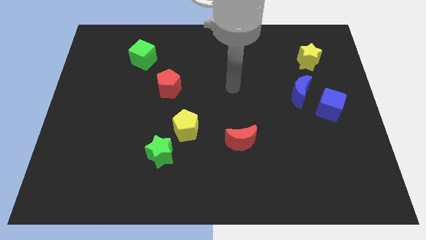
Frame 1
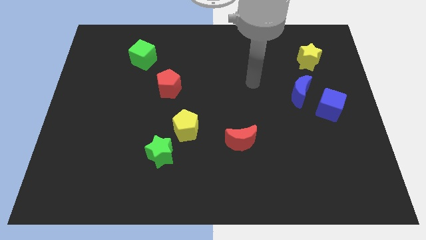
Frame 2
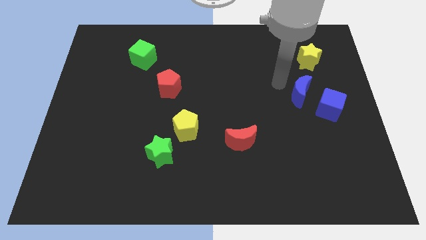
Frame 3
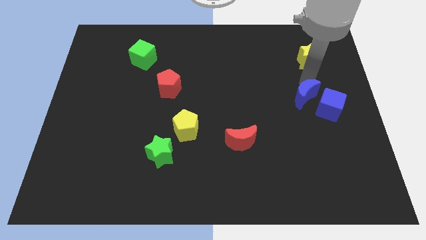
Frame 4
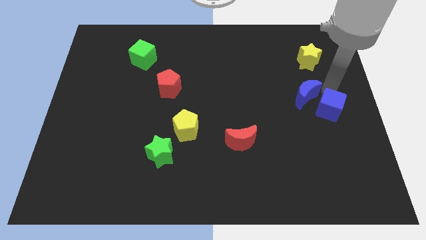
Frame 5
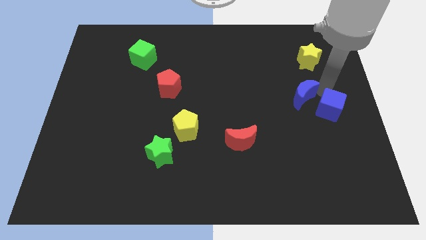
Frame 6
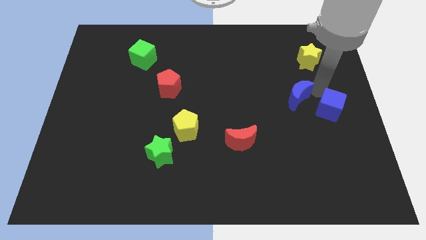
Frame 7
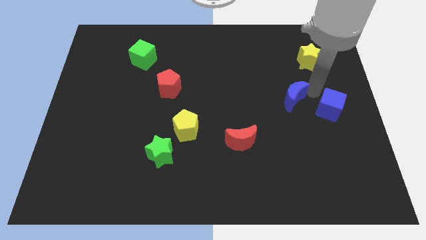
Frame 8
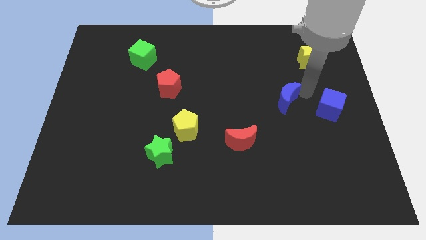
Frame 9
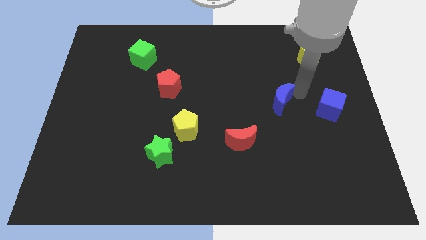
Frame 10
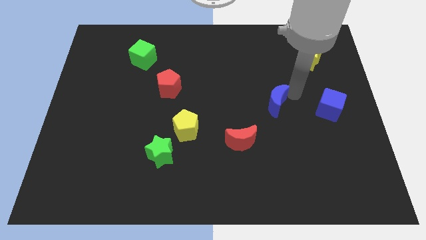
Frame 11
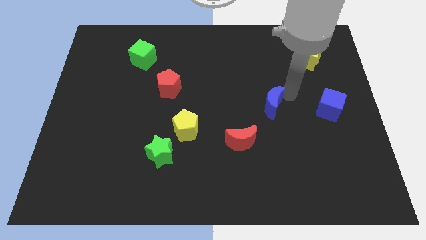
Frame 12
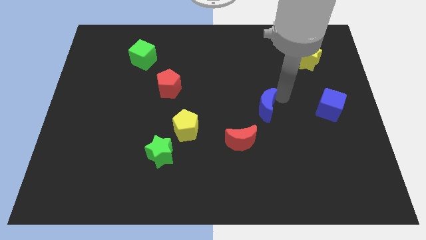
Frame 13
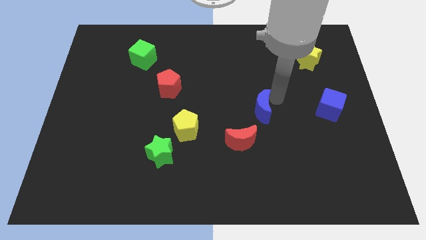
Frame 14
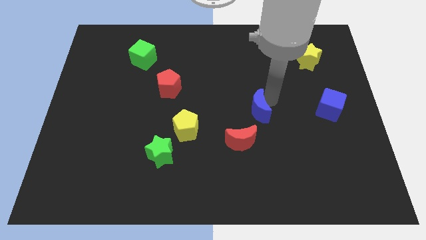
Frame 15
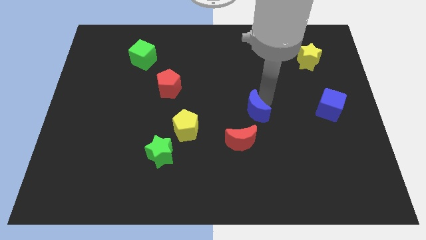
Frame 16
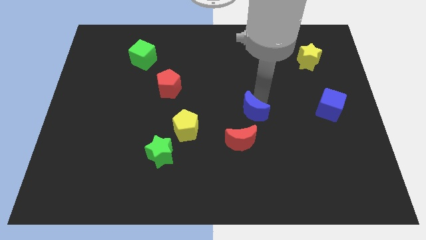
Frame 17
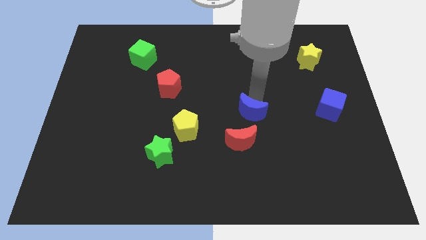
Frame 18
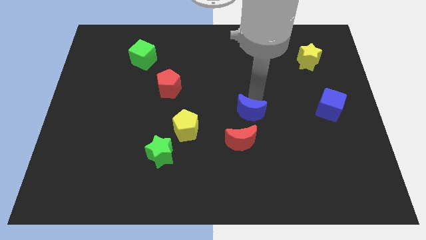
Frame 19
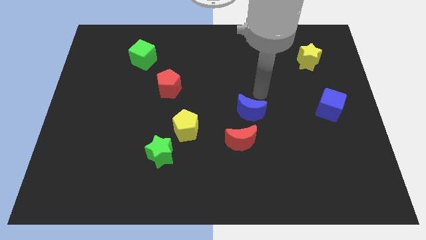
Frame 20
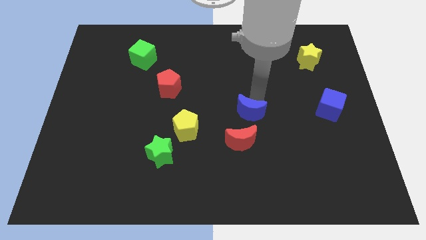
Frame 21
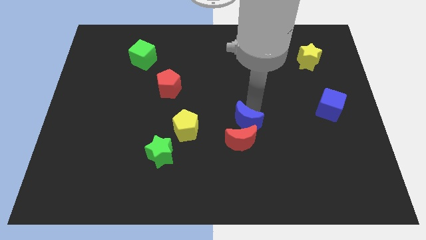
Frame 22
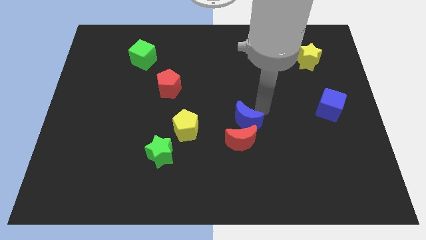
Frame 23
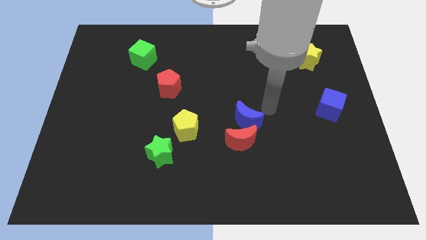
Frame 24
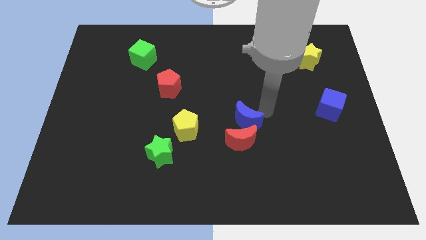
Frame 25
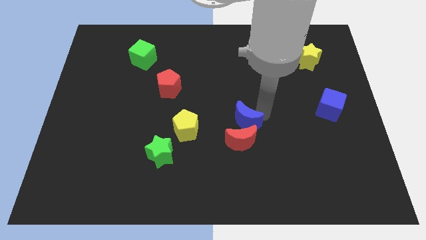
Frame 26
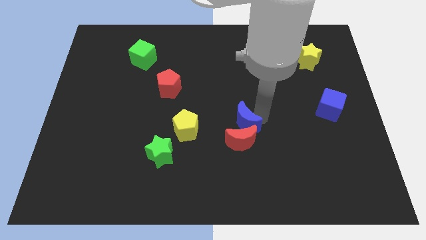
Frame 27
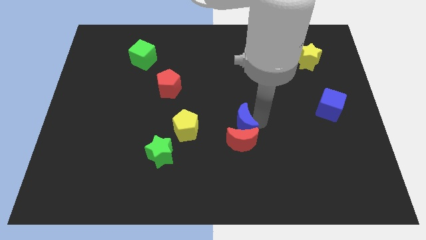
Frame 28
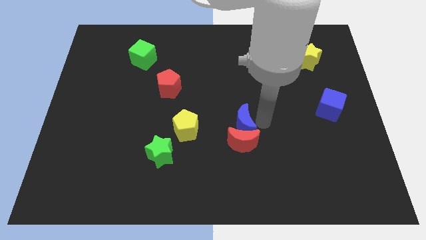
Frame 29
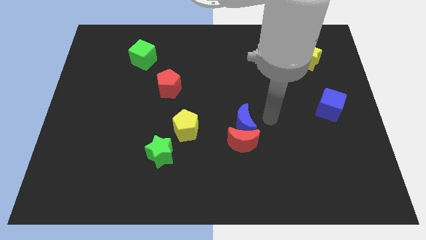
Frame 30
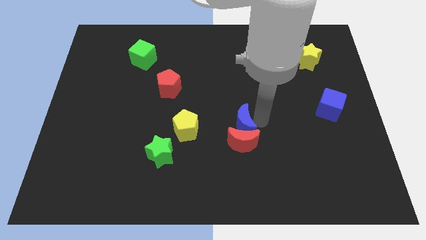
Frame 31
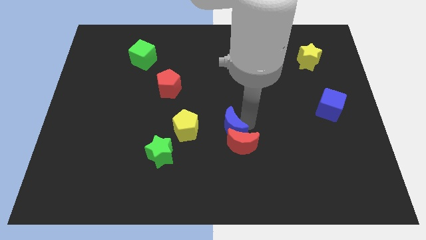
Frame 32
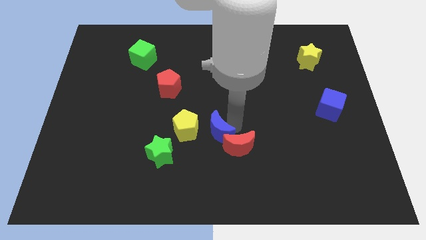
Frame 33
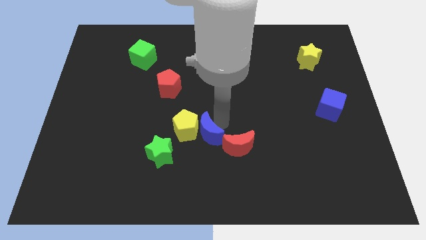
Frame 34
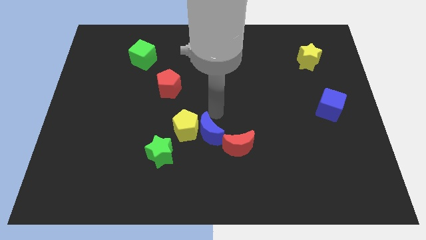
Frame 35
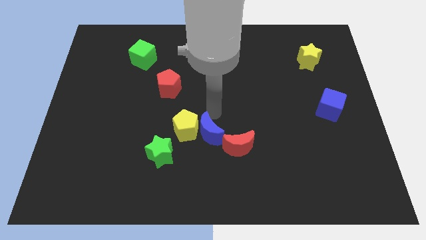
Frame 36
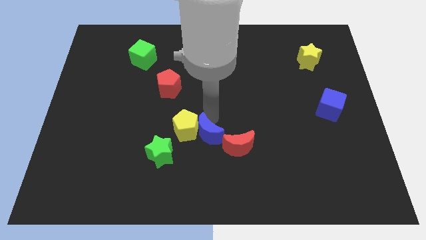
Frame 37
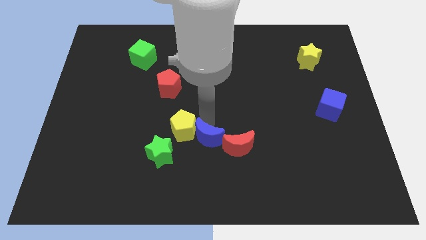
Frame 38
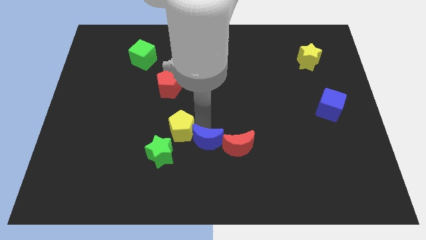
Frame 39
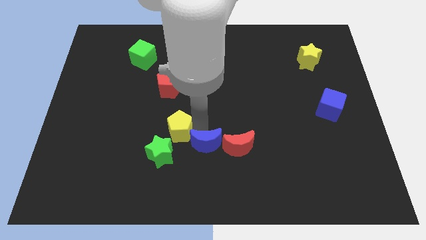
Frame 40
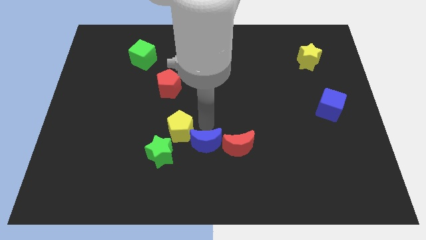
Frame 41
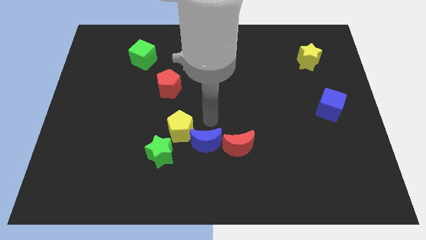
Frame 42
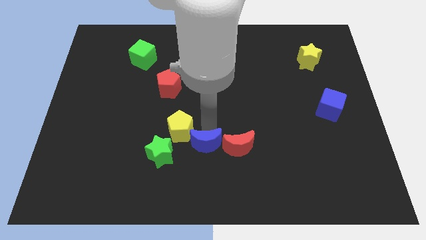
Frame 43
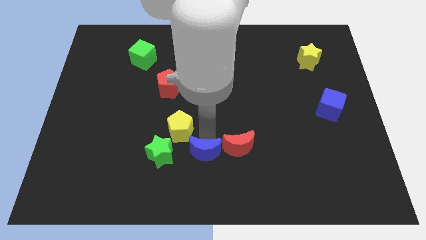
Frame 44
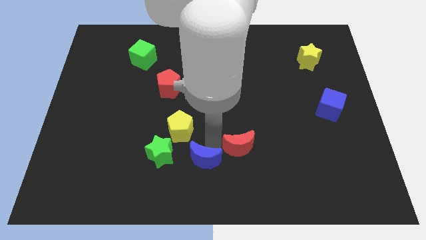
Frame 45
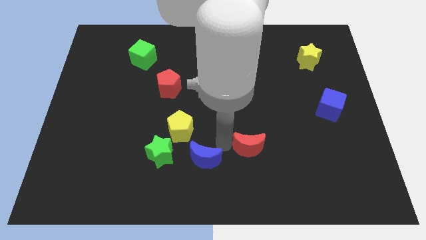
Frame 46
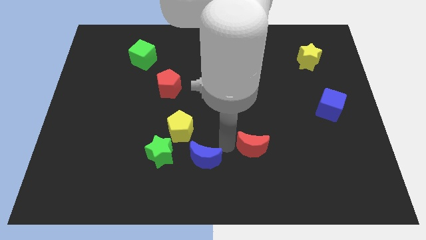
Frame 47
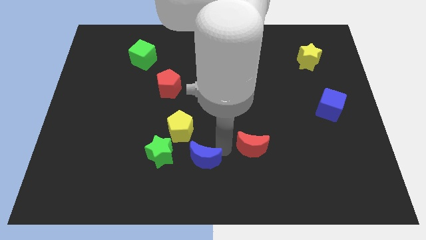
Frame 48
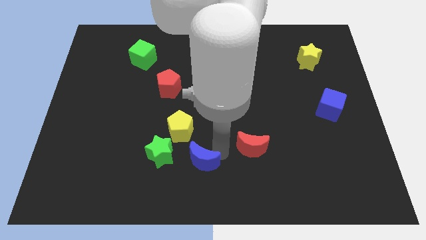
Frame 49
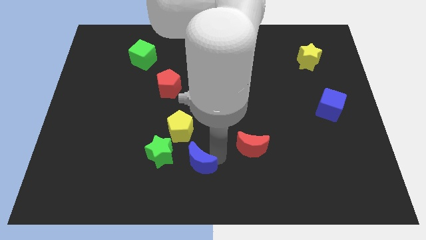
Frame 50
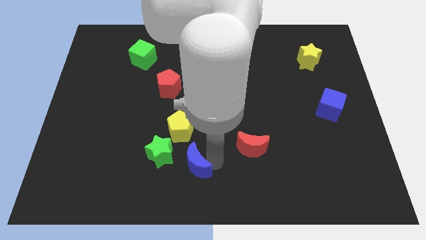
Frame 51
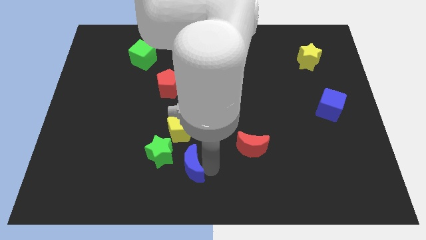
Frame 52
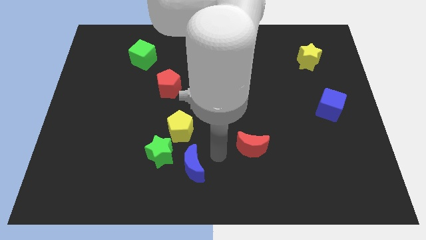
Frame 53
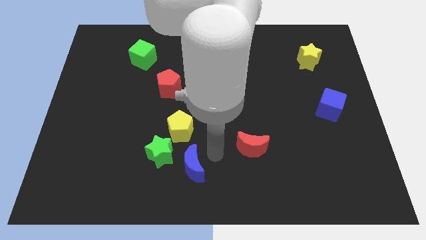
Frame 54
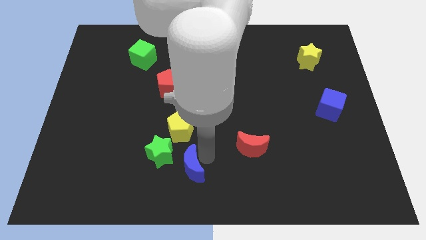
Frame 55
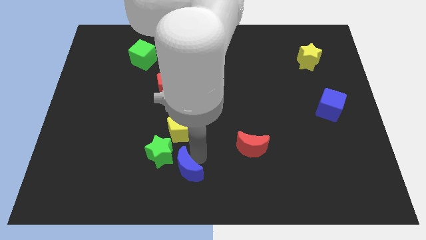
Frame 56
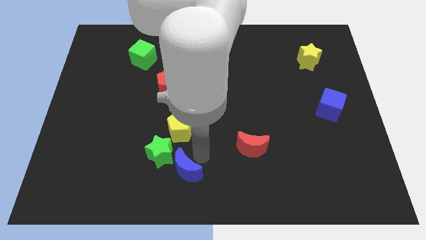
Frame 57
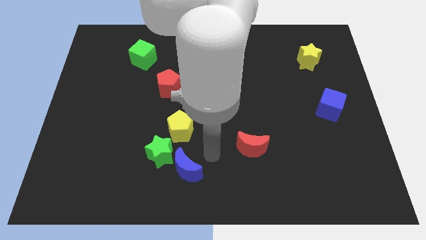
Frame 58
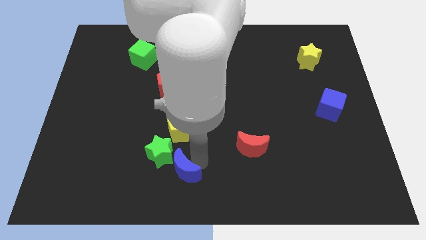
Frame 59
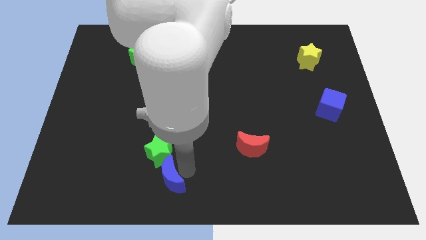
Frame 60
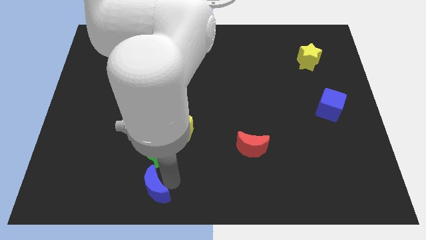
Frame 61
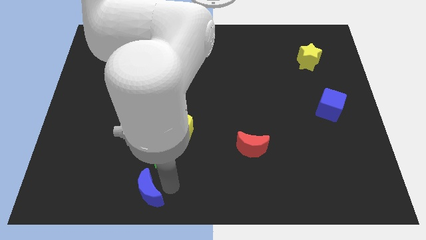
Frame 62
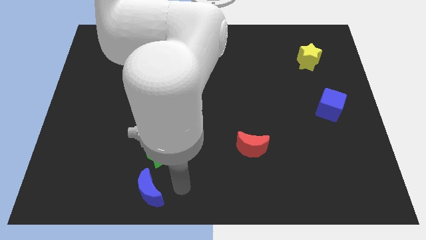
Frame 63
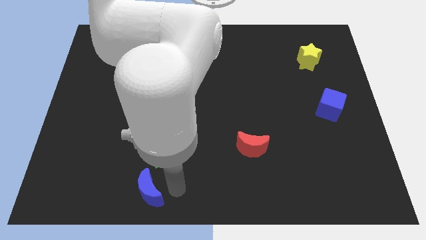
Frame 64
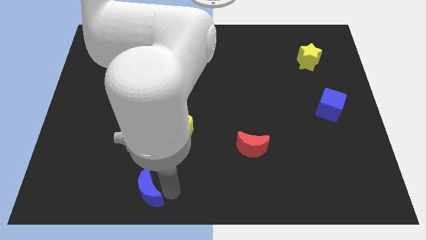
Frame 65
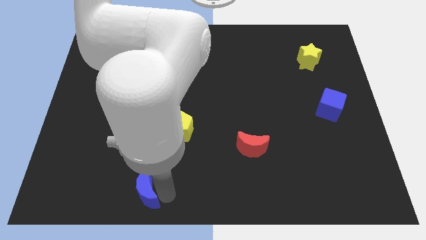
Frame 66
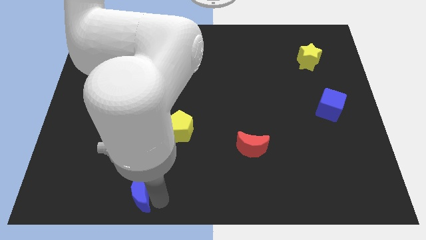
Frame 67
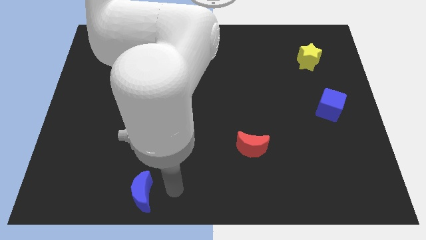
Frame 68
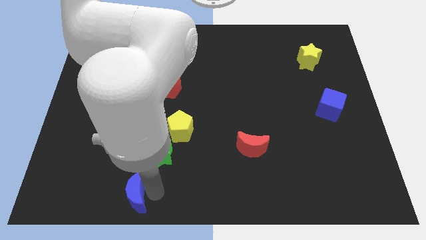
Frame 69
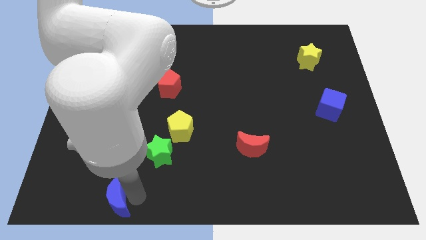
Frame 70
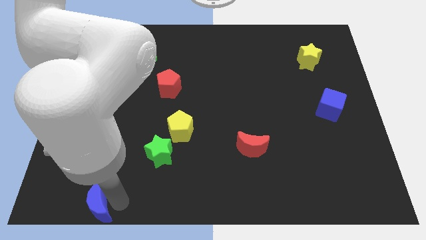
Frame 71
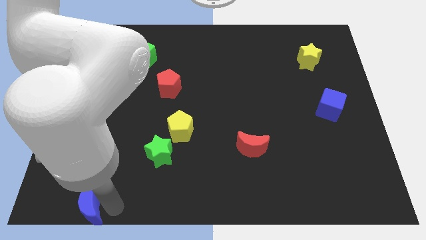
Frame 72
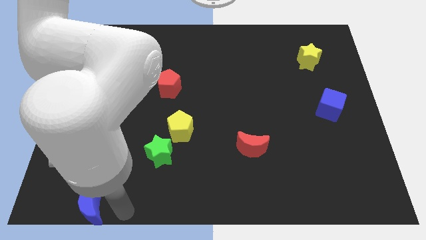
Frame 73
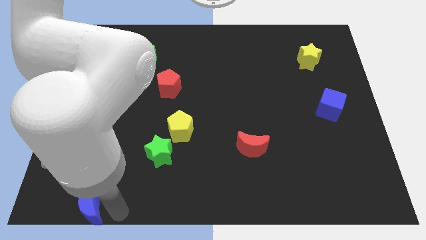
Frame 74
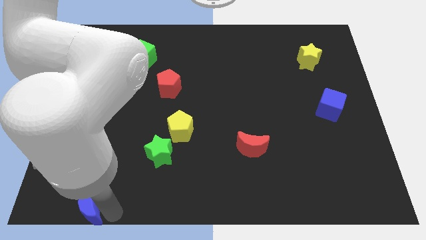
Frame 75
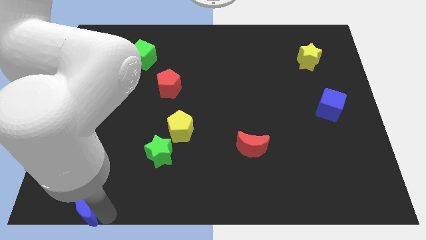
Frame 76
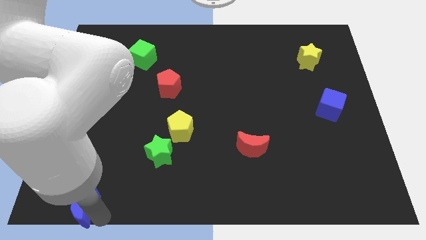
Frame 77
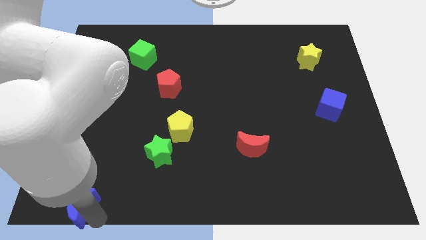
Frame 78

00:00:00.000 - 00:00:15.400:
slide the blue moon to the bottom left corner
